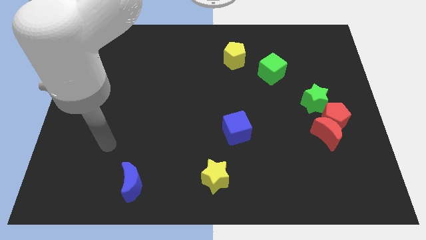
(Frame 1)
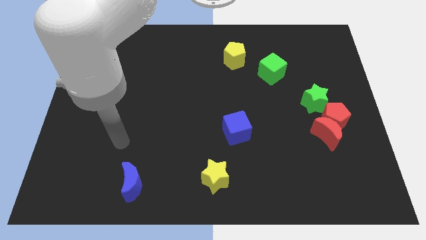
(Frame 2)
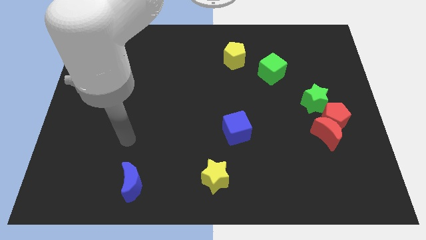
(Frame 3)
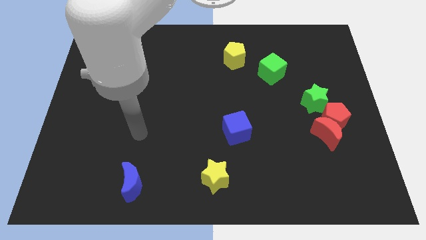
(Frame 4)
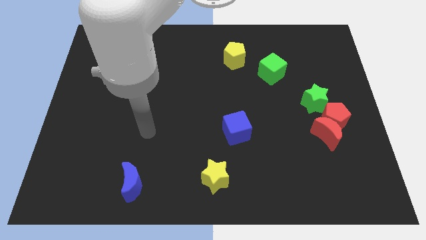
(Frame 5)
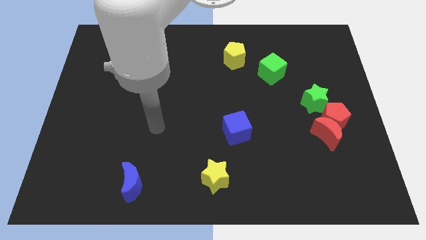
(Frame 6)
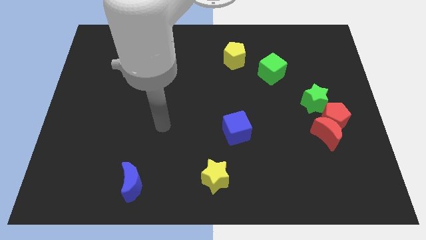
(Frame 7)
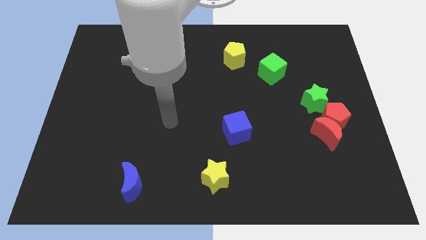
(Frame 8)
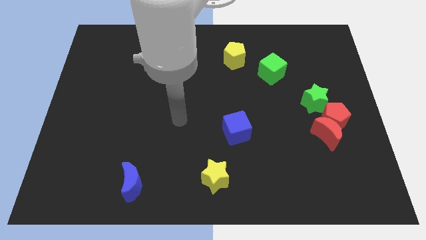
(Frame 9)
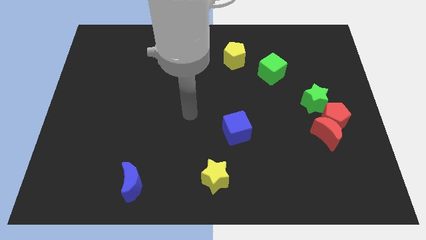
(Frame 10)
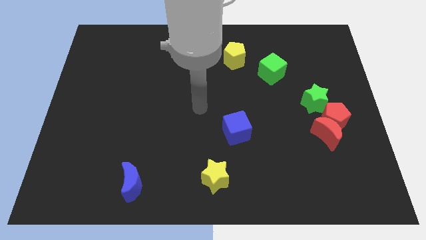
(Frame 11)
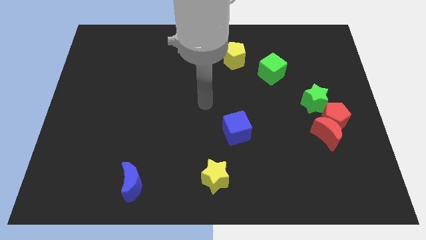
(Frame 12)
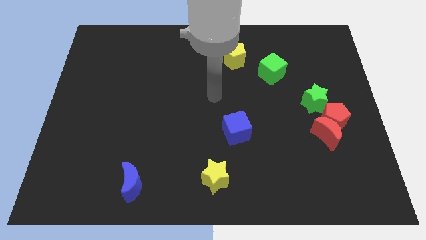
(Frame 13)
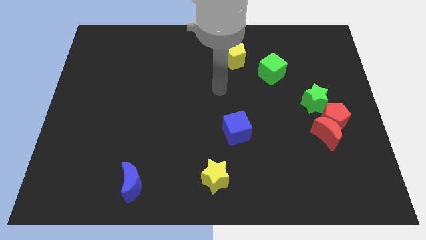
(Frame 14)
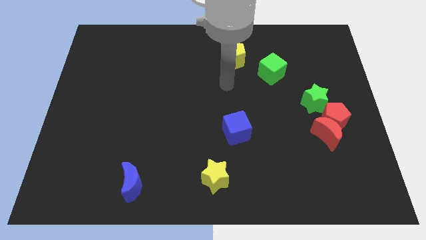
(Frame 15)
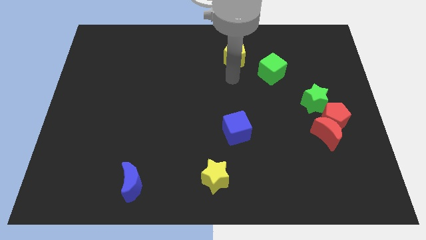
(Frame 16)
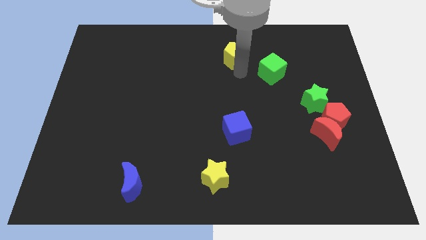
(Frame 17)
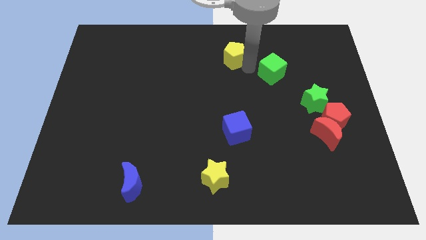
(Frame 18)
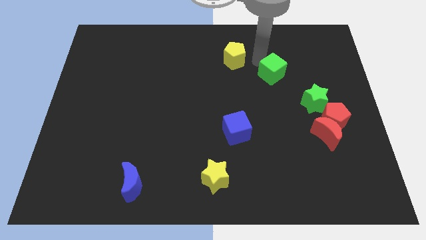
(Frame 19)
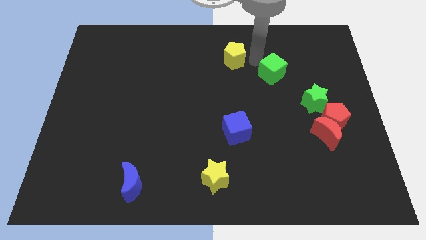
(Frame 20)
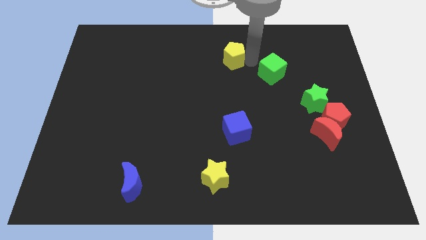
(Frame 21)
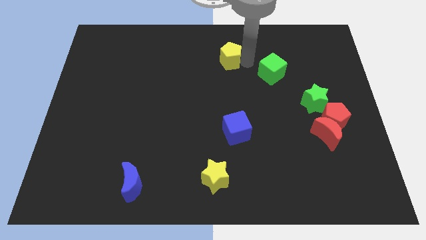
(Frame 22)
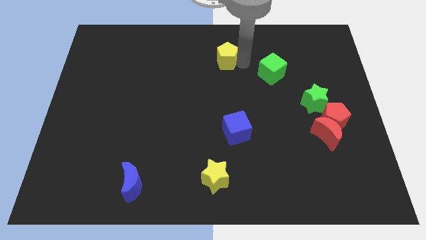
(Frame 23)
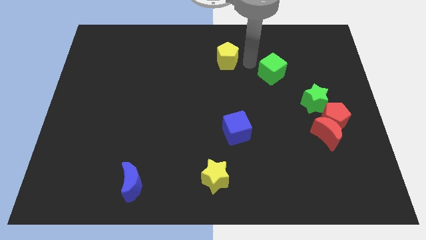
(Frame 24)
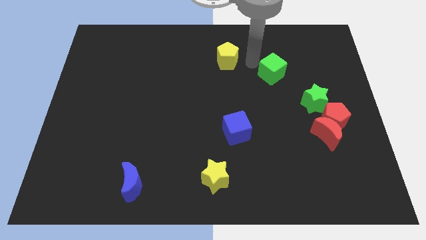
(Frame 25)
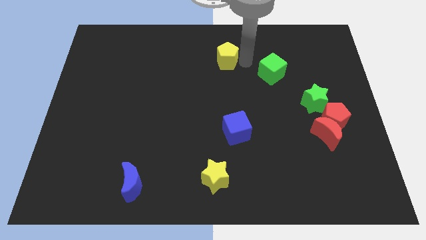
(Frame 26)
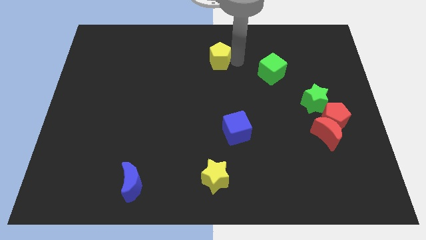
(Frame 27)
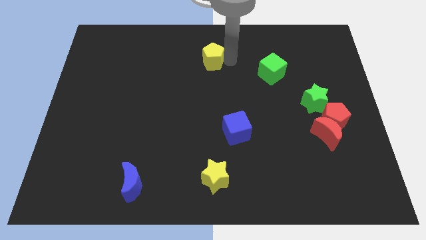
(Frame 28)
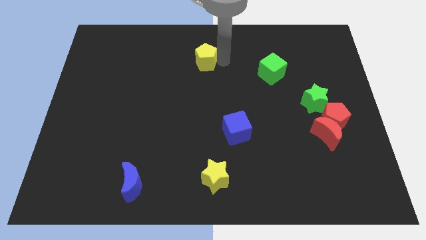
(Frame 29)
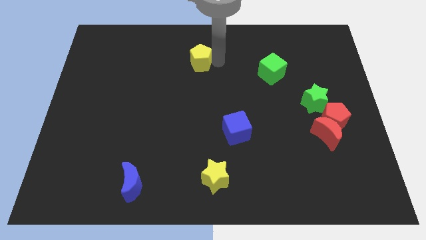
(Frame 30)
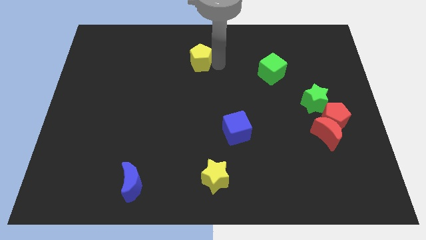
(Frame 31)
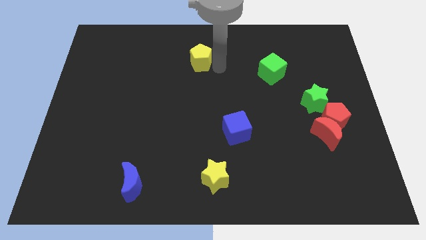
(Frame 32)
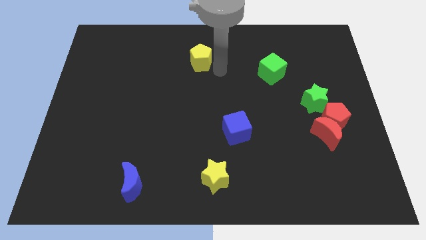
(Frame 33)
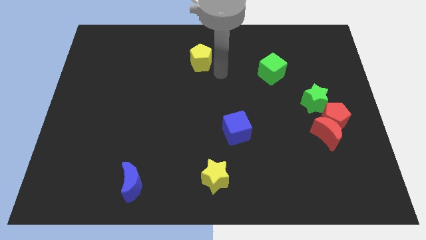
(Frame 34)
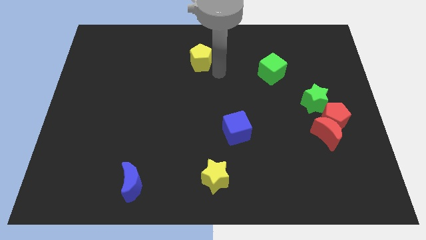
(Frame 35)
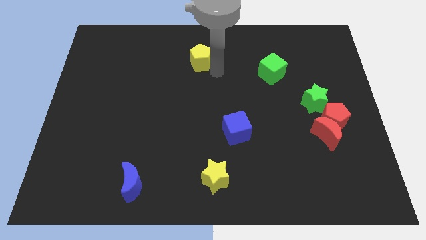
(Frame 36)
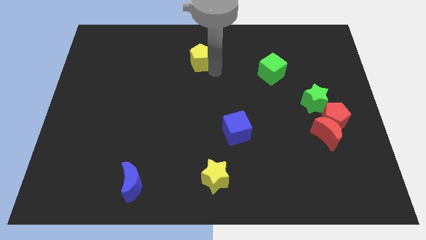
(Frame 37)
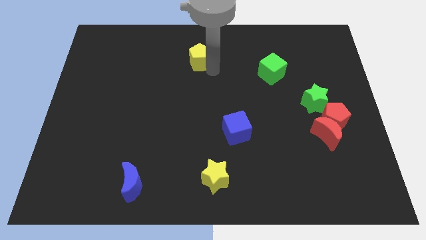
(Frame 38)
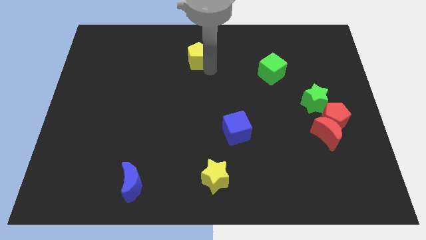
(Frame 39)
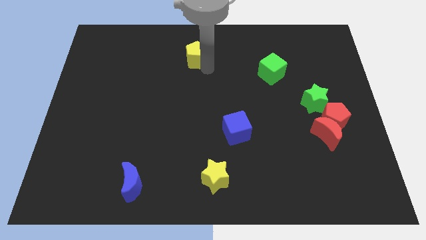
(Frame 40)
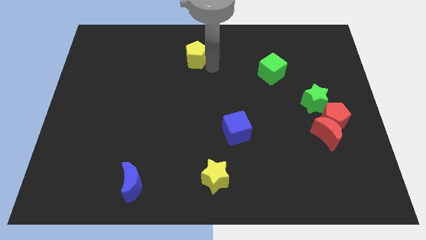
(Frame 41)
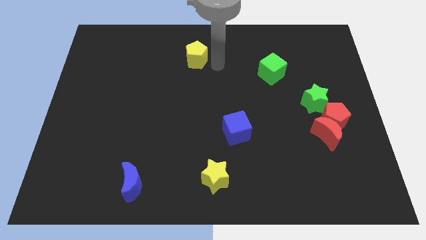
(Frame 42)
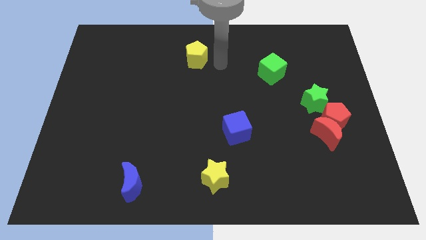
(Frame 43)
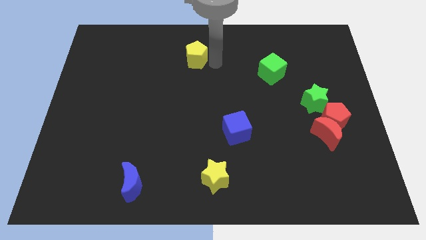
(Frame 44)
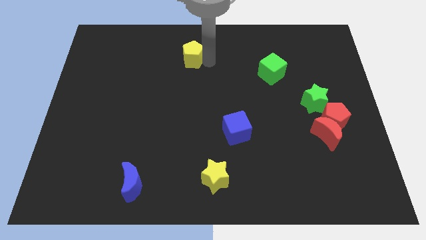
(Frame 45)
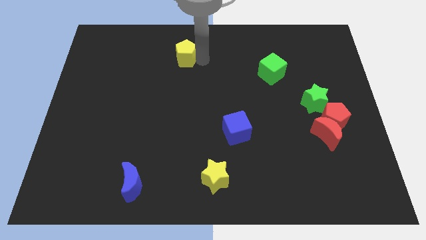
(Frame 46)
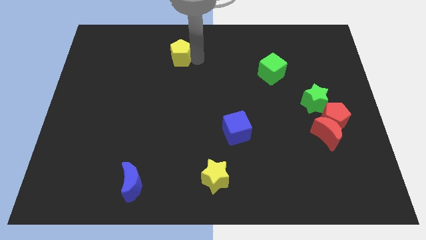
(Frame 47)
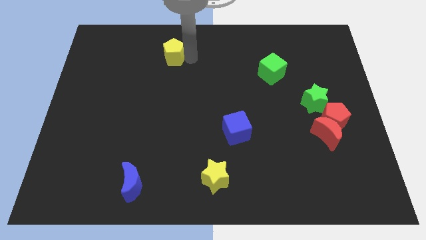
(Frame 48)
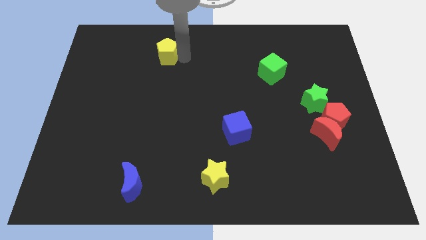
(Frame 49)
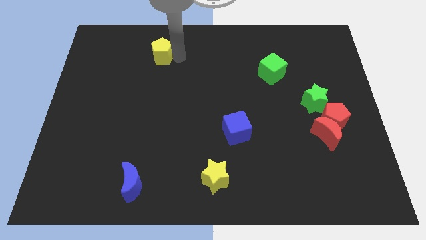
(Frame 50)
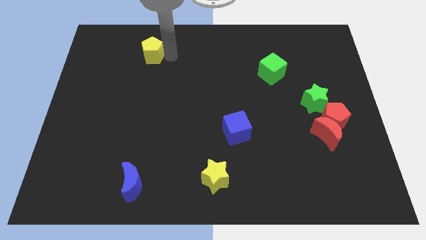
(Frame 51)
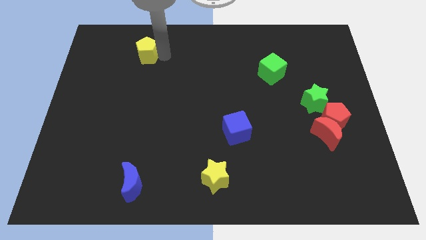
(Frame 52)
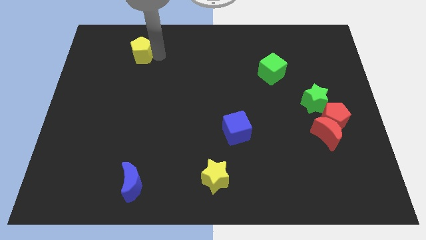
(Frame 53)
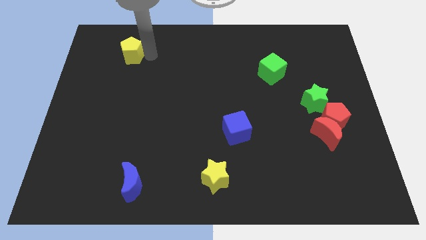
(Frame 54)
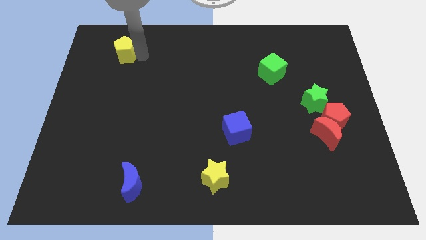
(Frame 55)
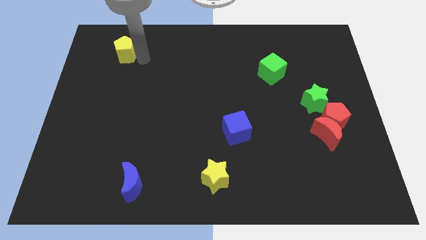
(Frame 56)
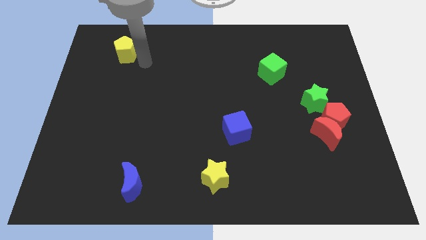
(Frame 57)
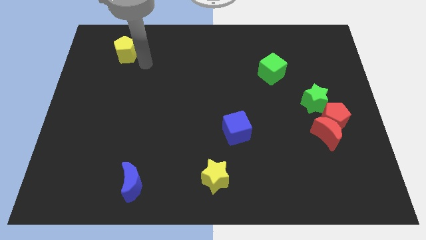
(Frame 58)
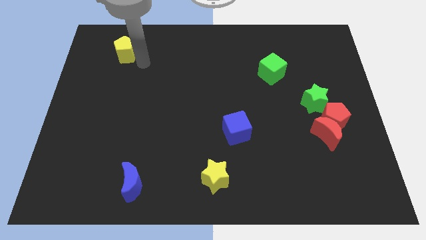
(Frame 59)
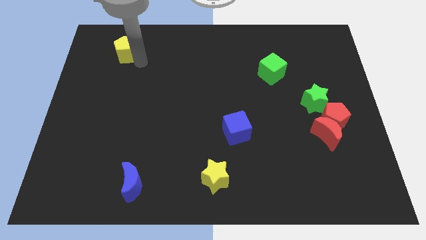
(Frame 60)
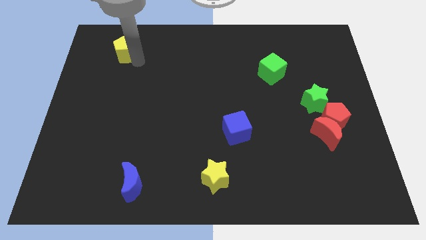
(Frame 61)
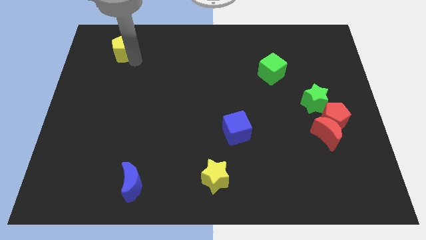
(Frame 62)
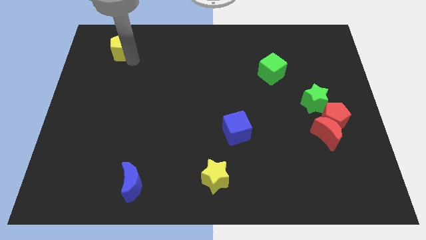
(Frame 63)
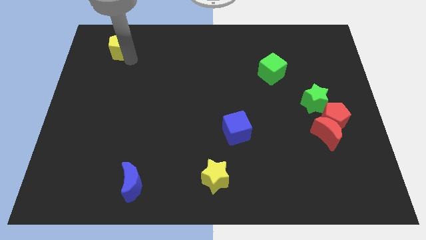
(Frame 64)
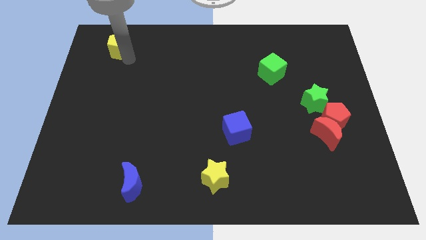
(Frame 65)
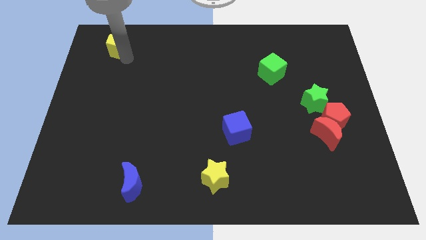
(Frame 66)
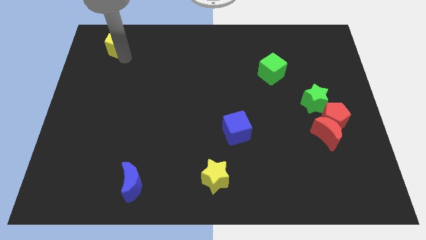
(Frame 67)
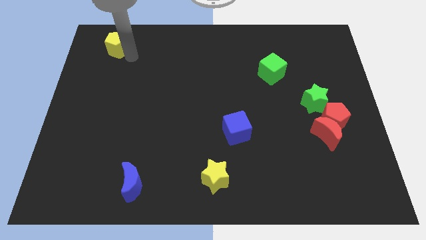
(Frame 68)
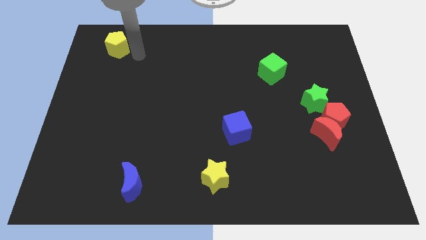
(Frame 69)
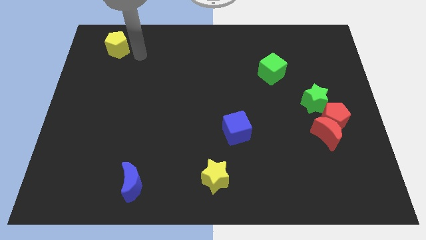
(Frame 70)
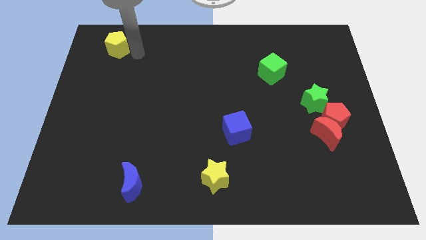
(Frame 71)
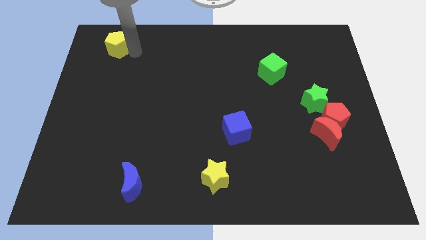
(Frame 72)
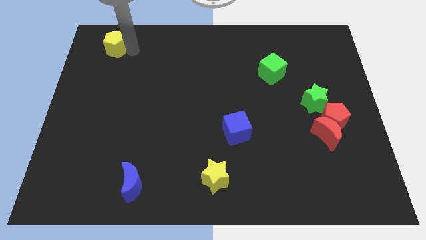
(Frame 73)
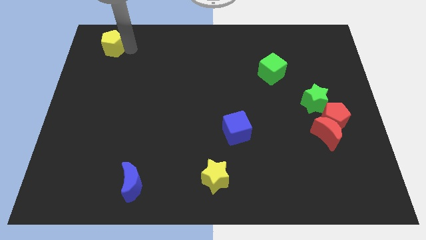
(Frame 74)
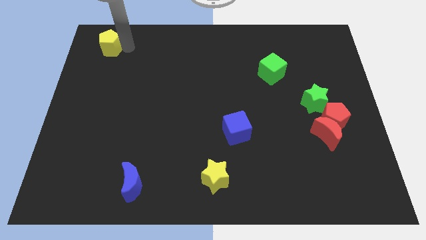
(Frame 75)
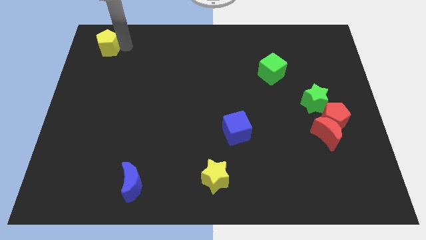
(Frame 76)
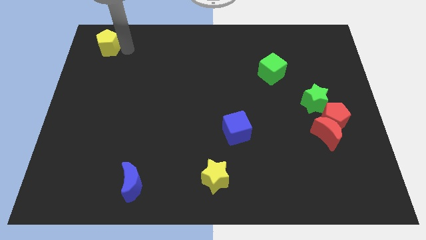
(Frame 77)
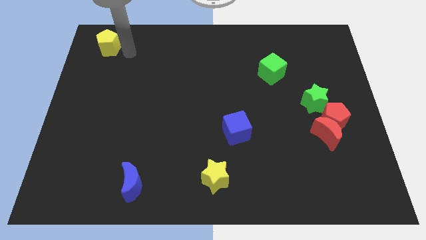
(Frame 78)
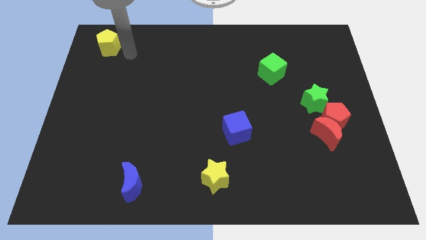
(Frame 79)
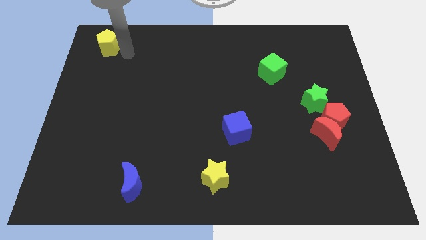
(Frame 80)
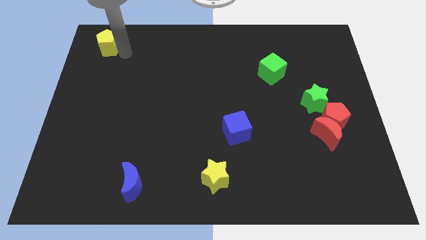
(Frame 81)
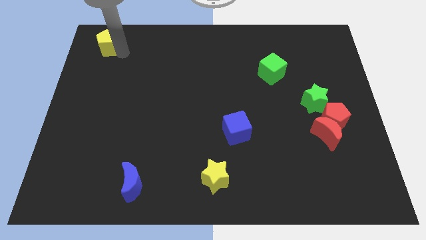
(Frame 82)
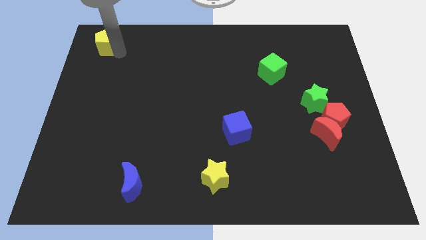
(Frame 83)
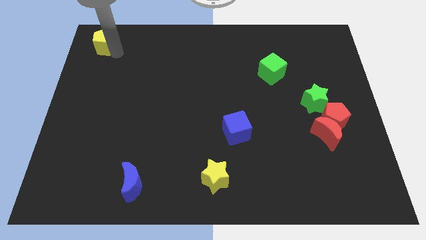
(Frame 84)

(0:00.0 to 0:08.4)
slide the yellow pentagon to the top left
